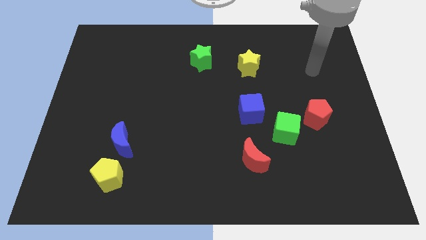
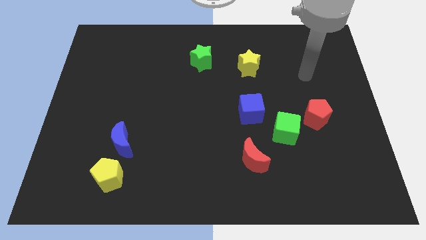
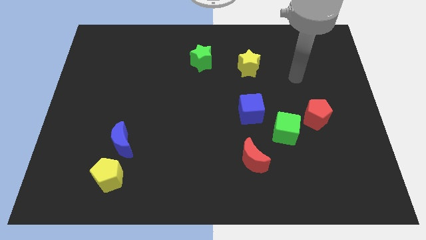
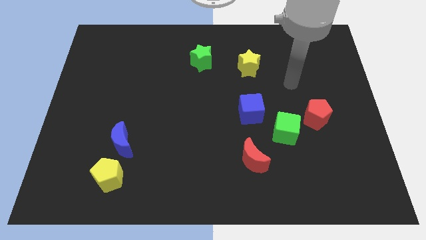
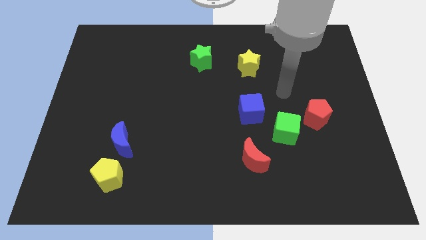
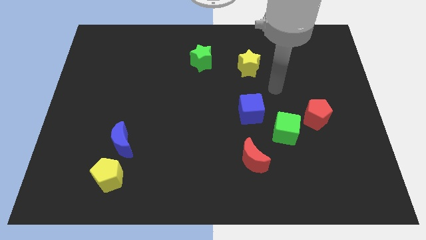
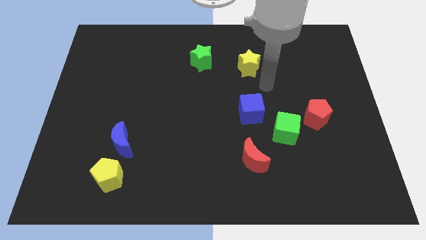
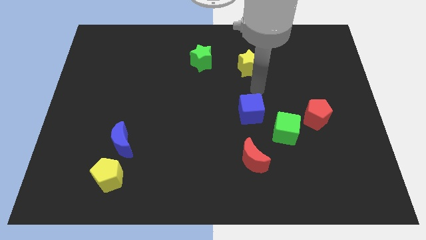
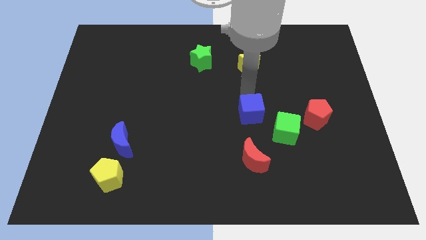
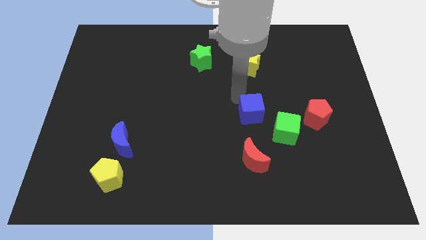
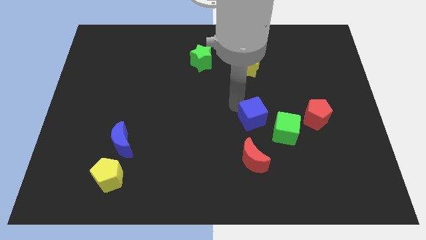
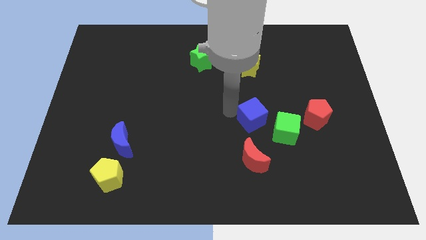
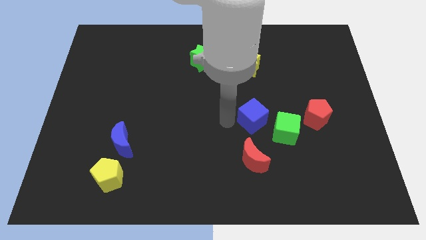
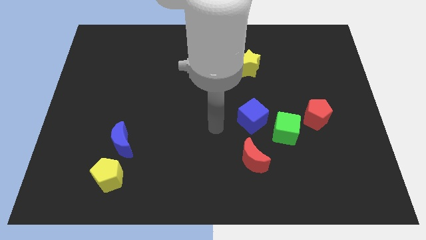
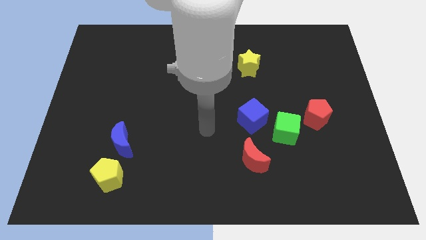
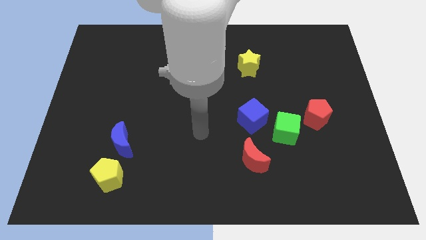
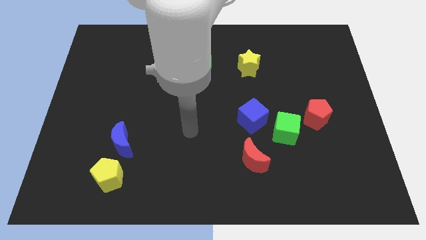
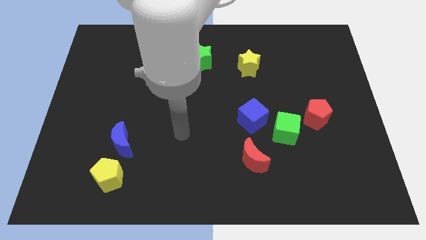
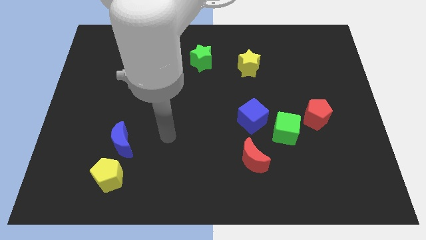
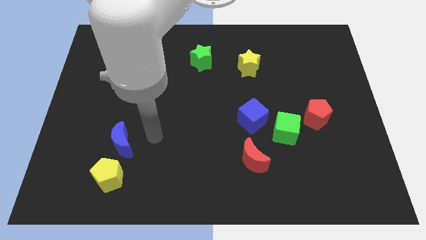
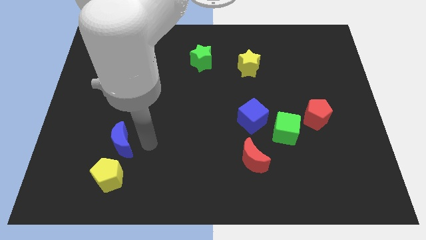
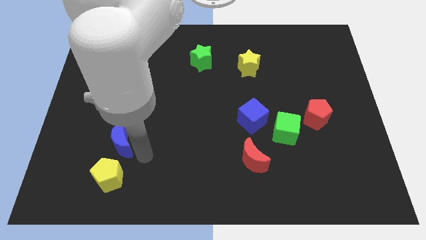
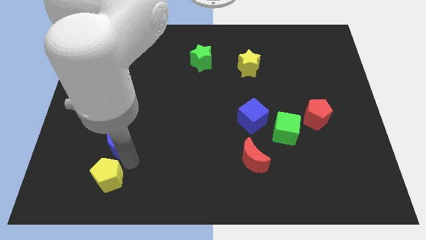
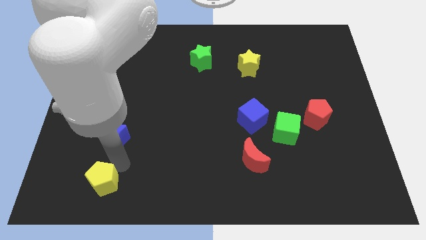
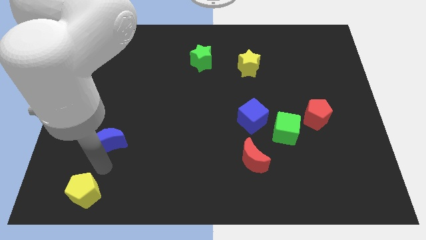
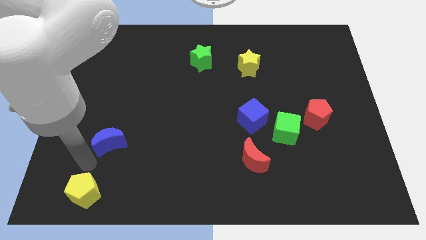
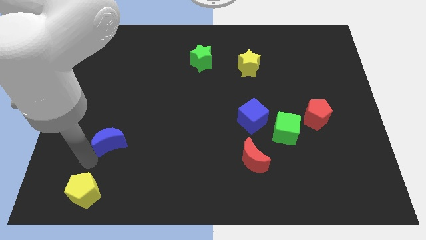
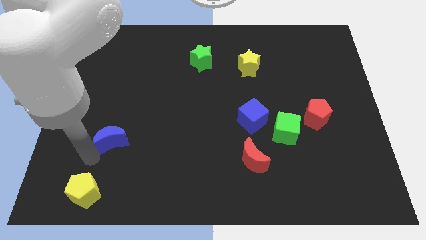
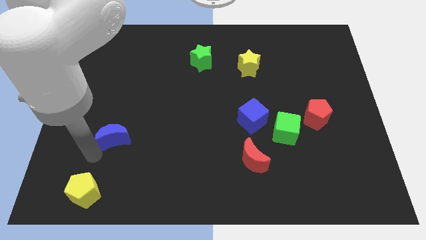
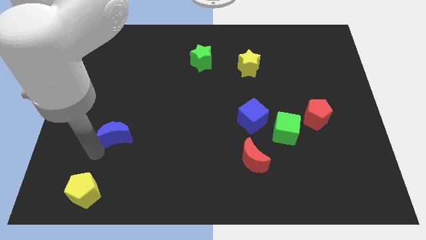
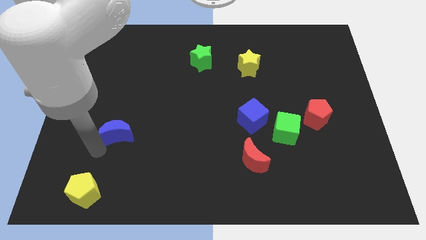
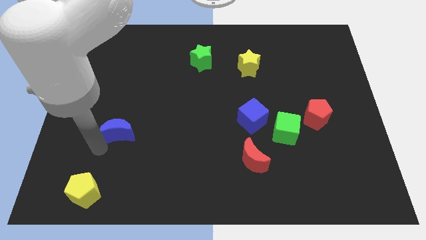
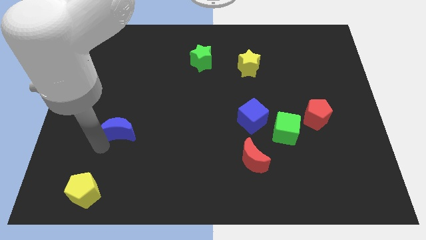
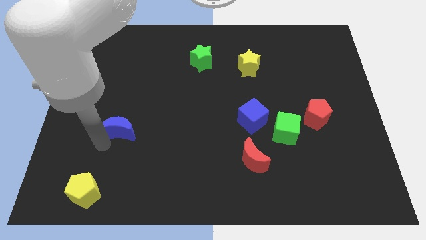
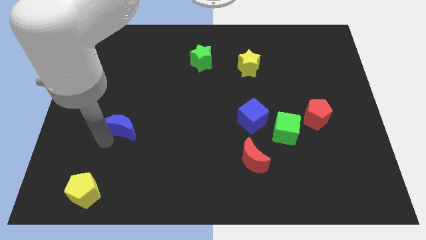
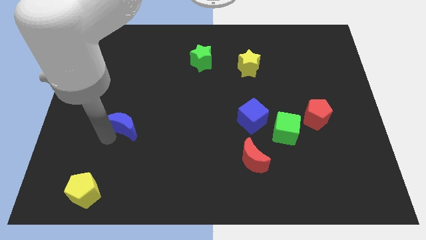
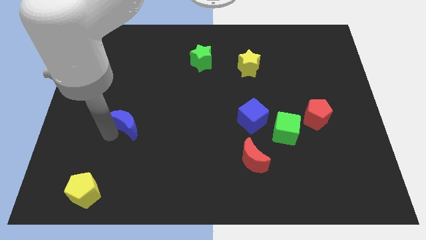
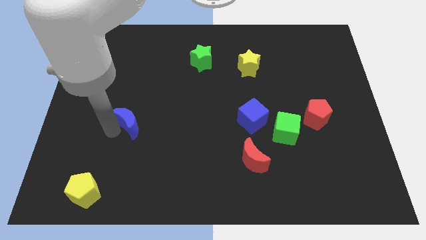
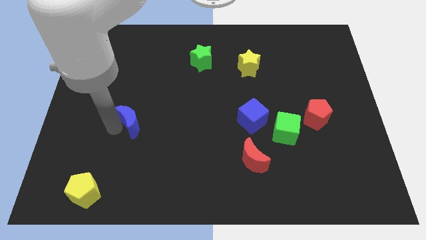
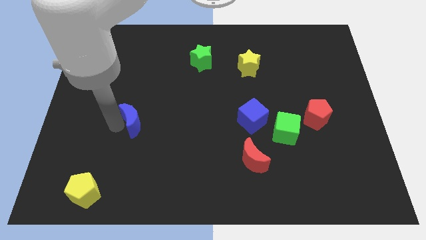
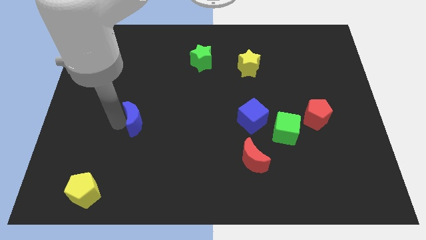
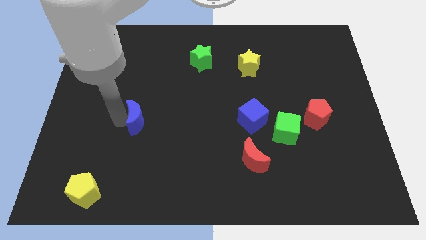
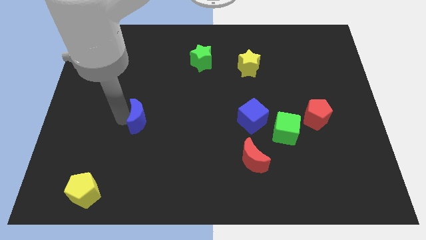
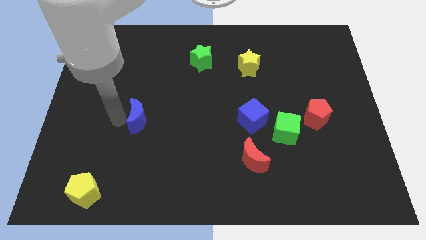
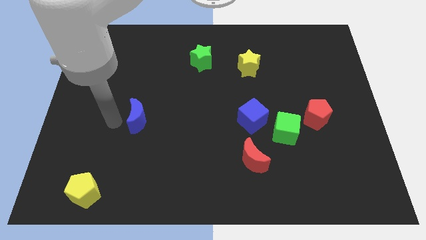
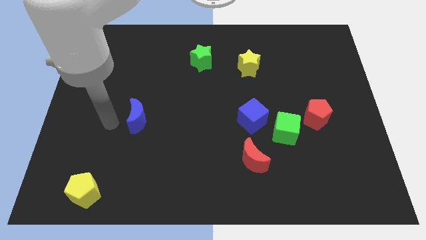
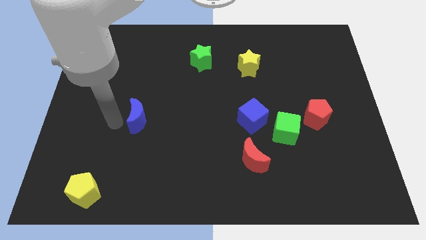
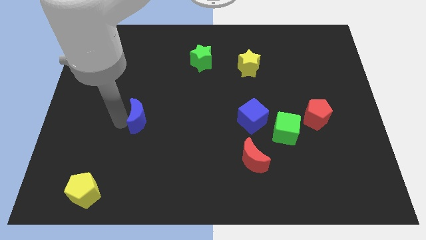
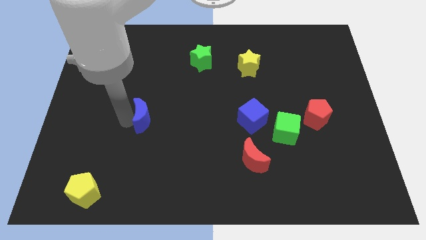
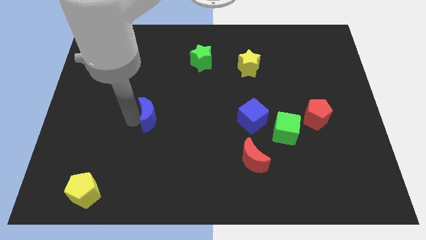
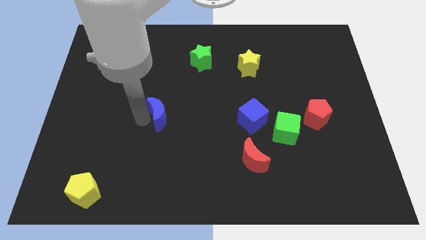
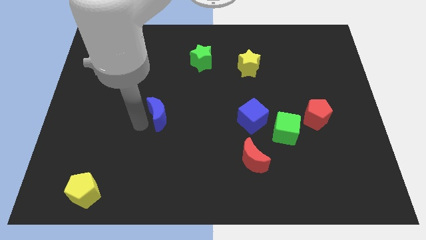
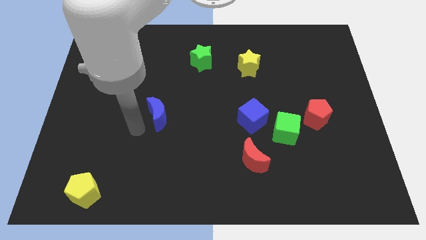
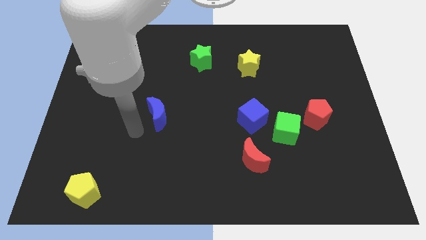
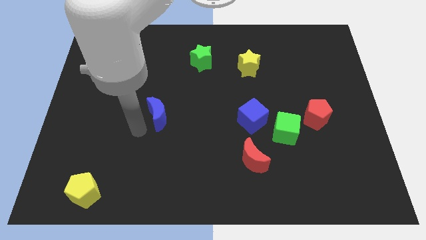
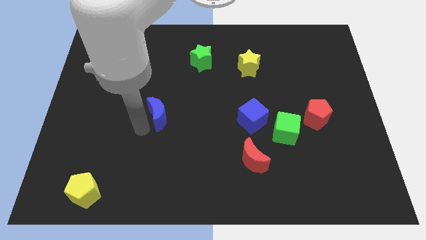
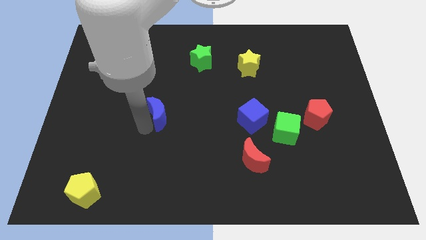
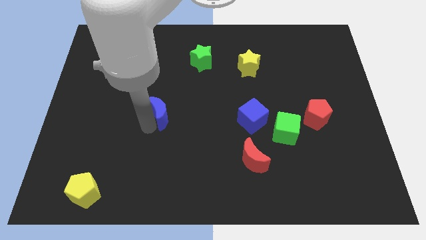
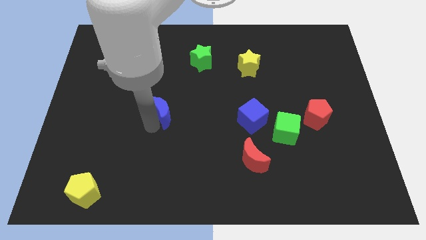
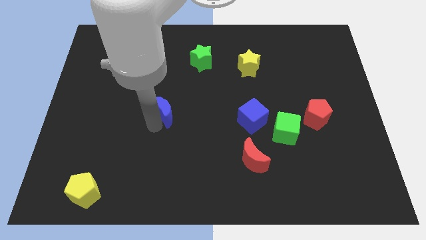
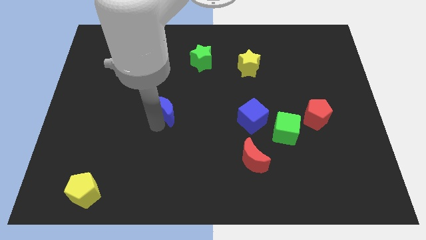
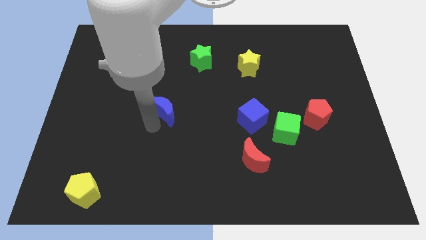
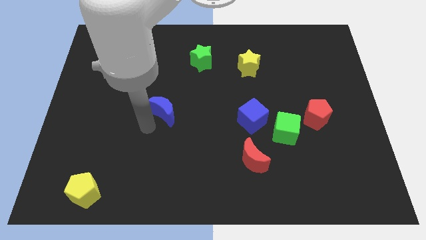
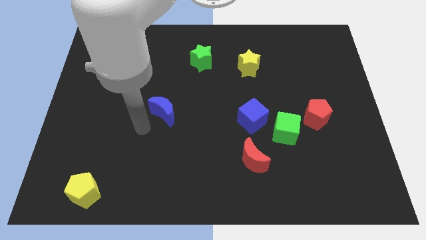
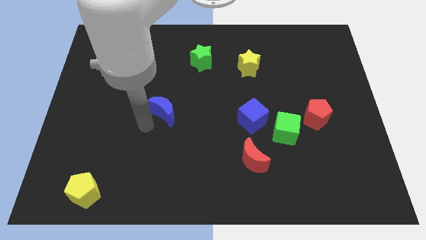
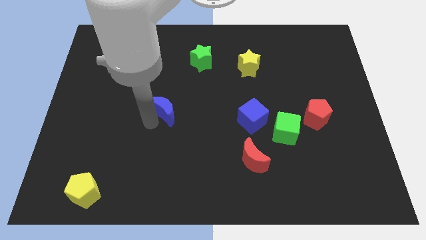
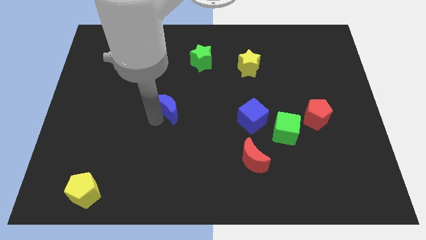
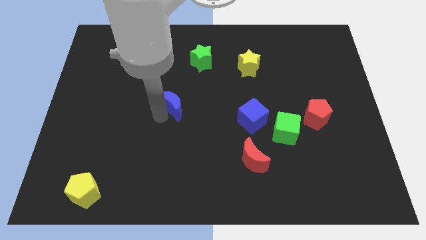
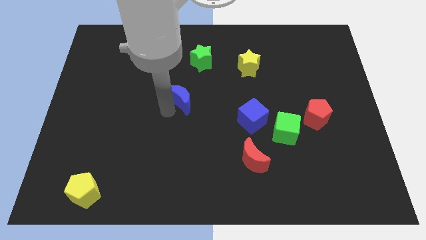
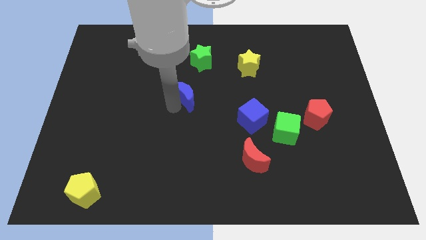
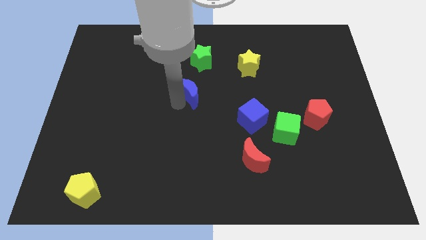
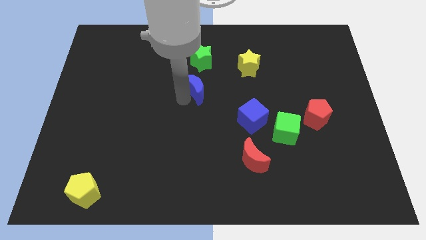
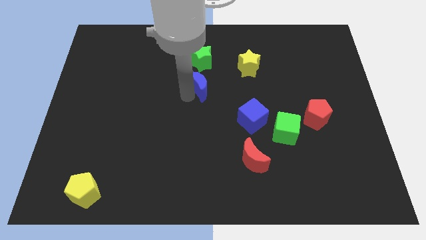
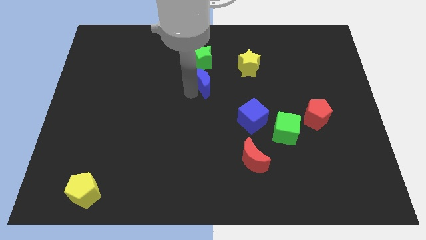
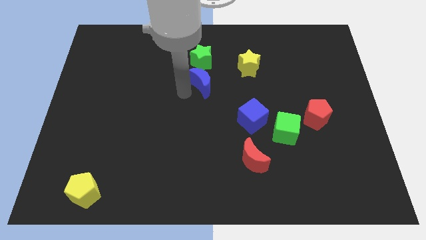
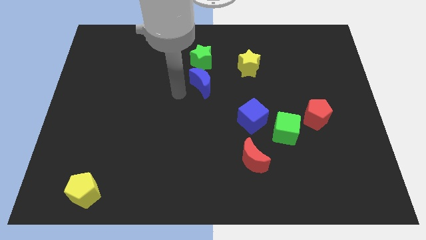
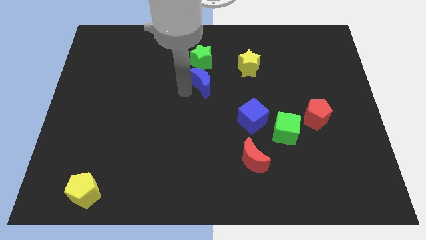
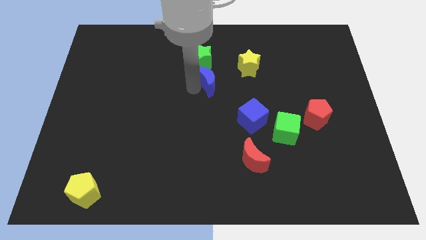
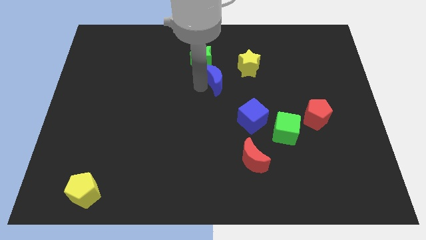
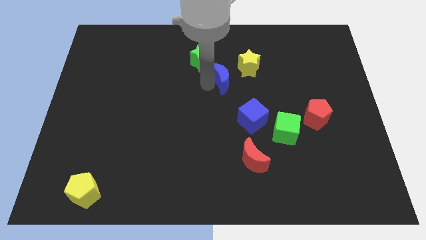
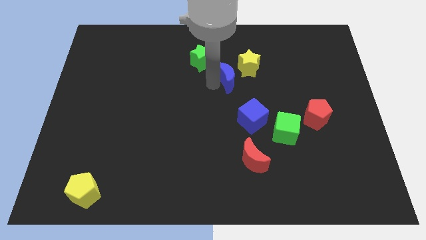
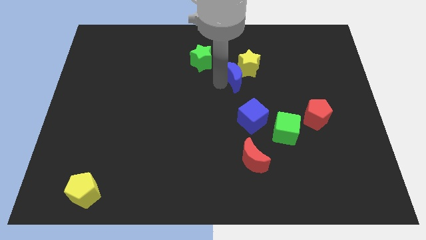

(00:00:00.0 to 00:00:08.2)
push the blue moon next to the yellow star
